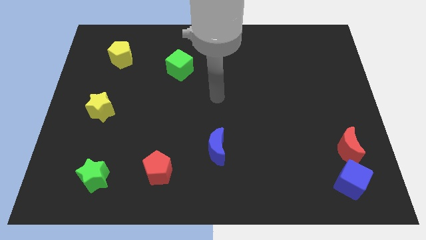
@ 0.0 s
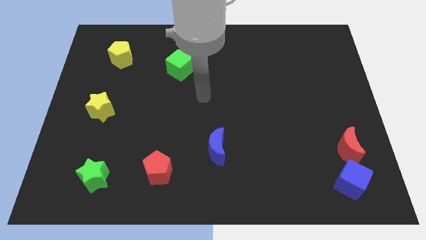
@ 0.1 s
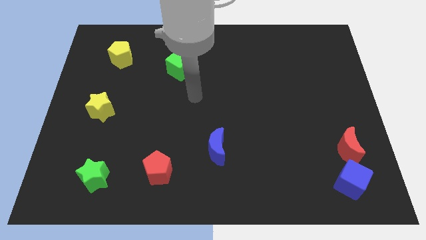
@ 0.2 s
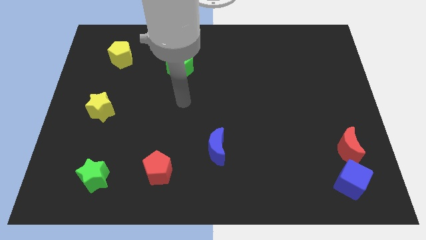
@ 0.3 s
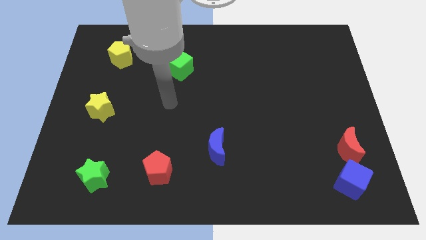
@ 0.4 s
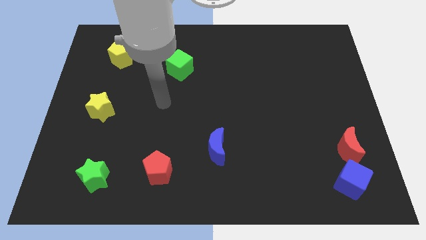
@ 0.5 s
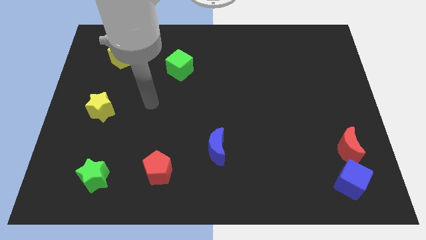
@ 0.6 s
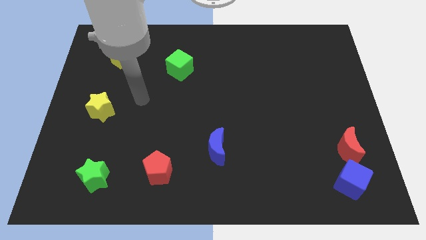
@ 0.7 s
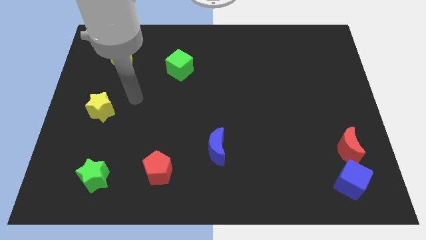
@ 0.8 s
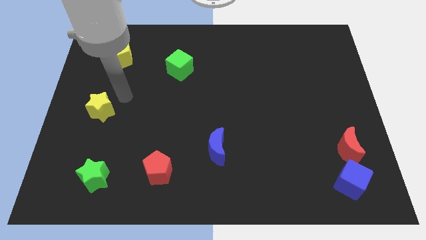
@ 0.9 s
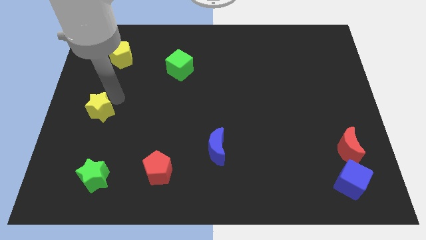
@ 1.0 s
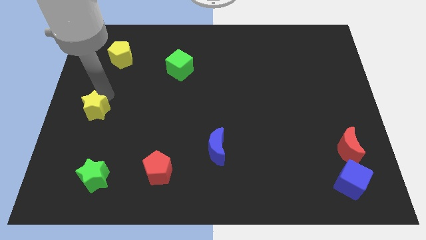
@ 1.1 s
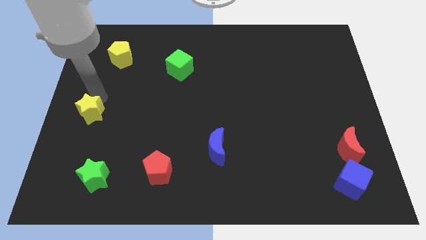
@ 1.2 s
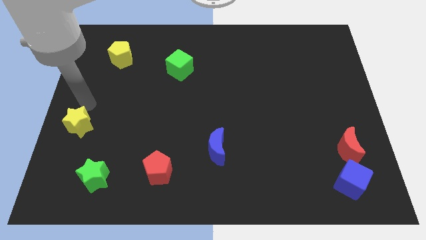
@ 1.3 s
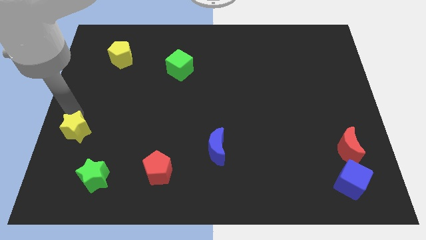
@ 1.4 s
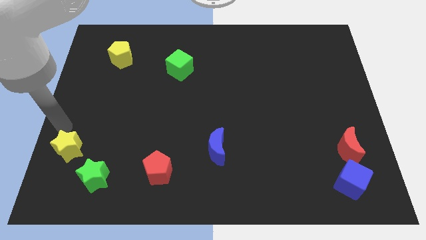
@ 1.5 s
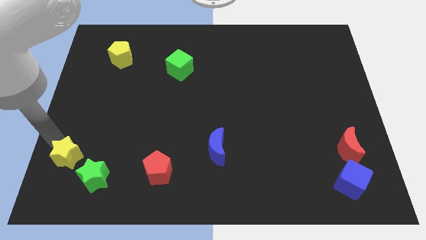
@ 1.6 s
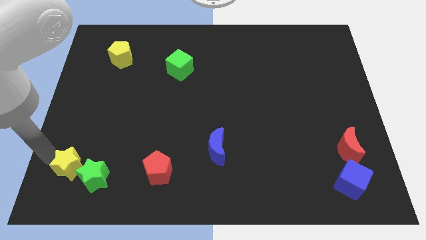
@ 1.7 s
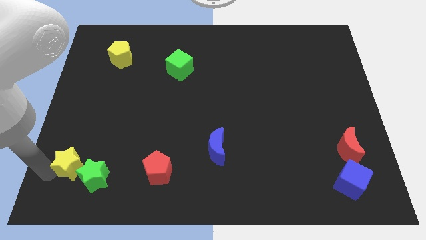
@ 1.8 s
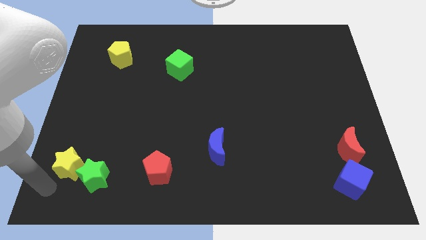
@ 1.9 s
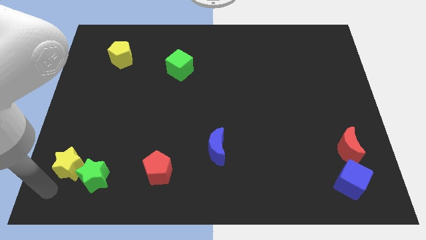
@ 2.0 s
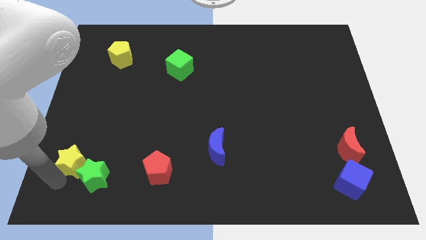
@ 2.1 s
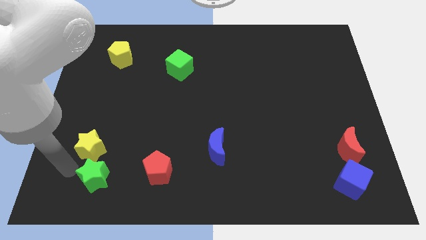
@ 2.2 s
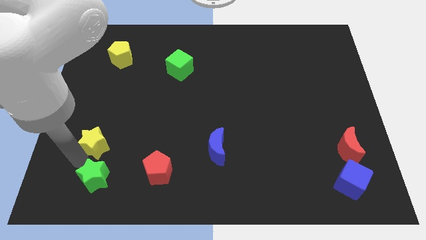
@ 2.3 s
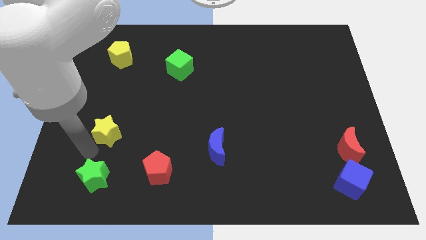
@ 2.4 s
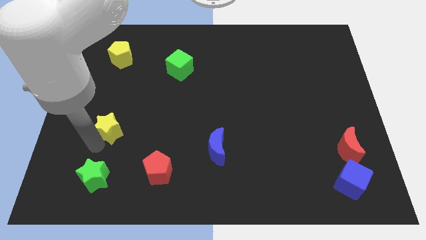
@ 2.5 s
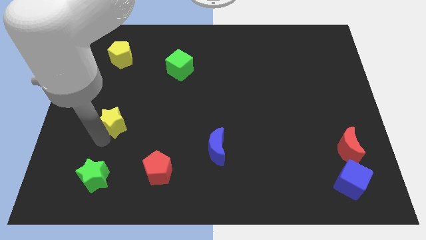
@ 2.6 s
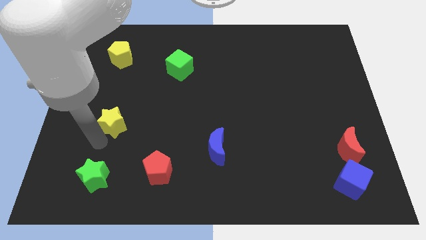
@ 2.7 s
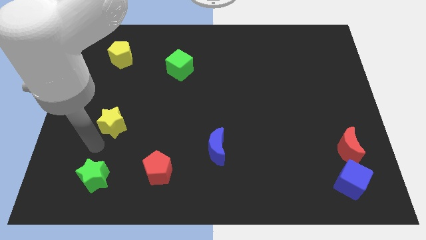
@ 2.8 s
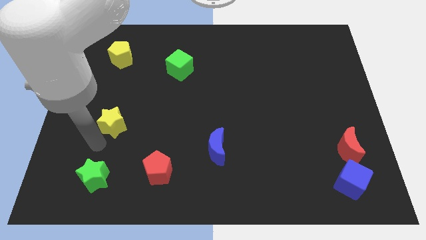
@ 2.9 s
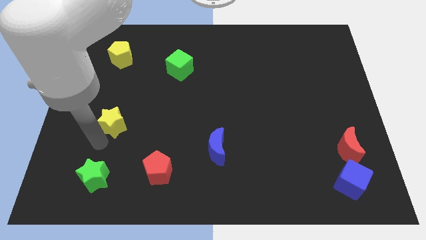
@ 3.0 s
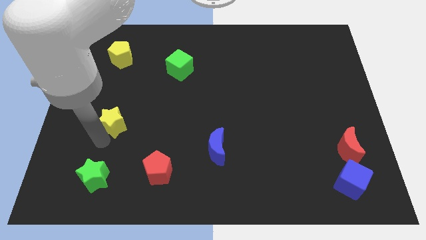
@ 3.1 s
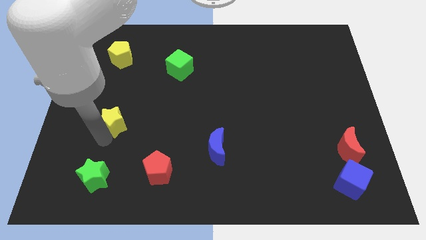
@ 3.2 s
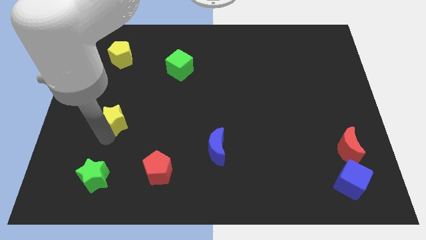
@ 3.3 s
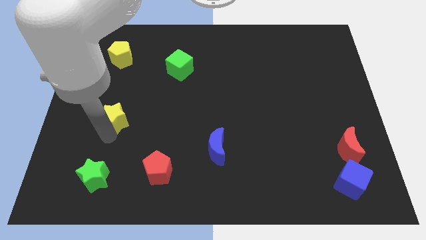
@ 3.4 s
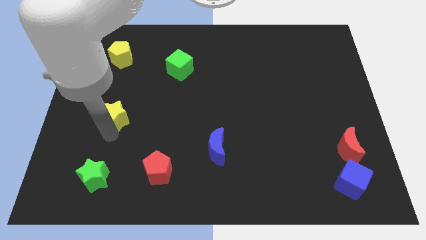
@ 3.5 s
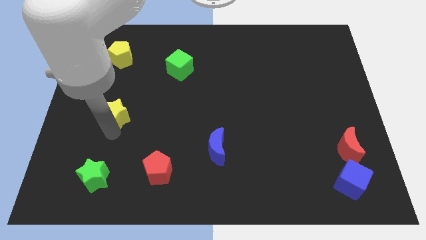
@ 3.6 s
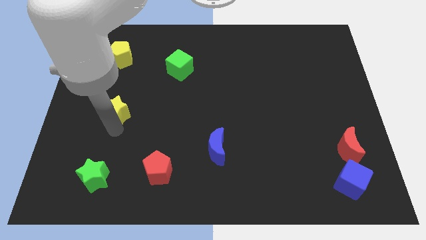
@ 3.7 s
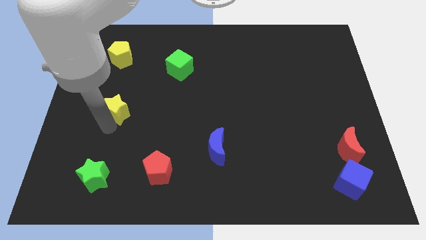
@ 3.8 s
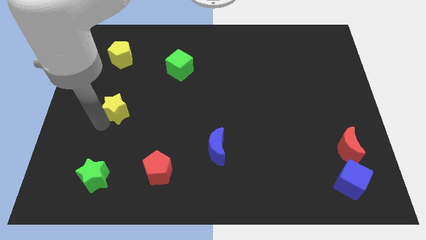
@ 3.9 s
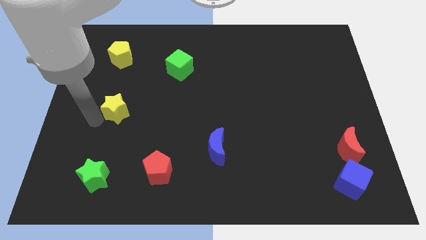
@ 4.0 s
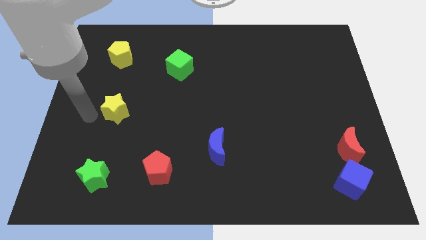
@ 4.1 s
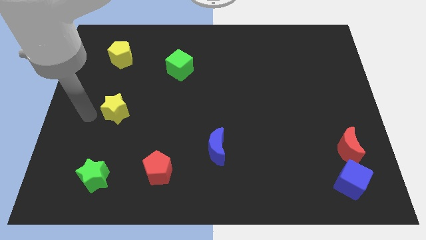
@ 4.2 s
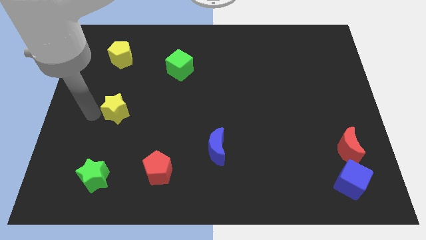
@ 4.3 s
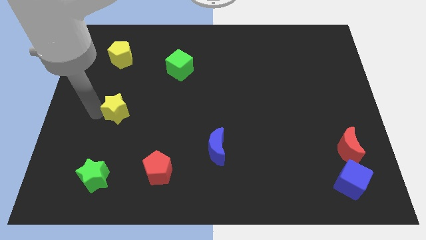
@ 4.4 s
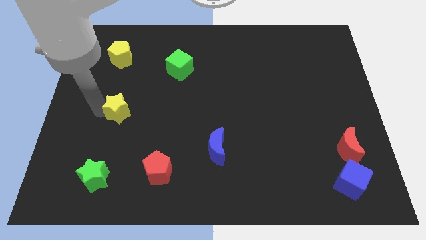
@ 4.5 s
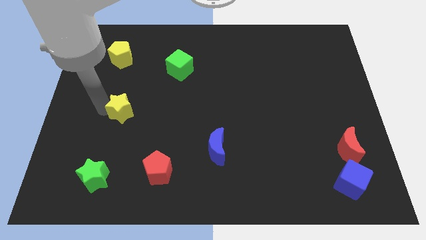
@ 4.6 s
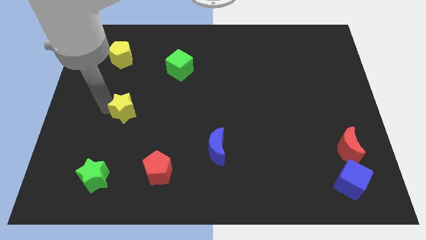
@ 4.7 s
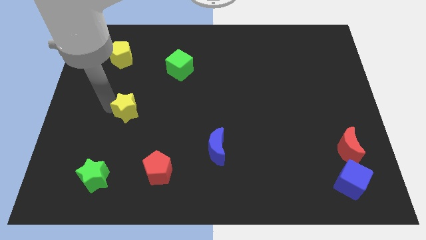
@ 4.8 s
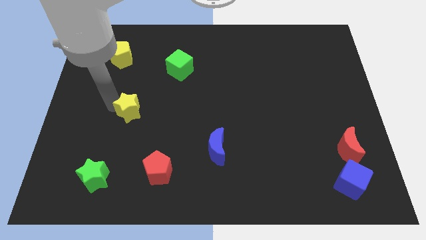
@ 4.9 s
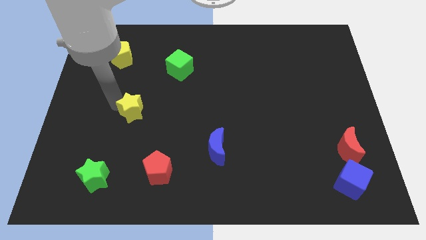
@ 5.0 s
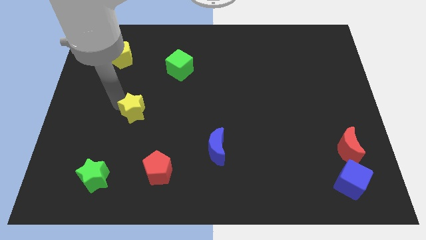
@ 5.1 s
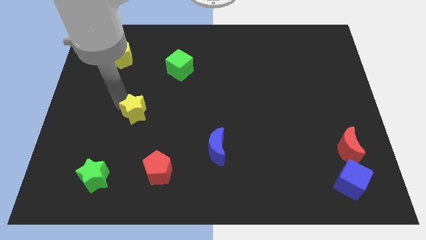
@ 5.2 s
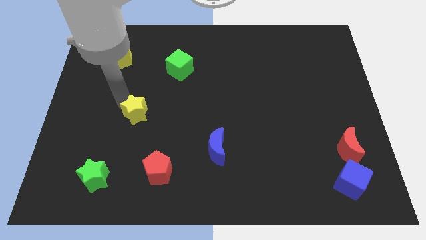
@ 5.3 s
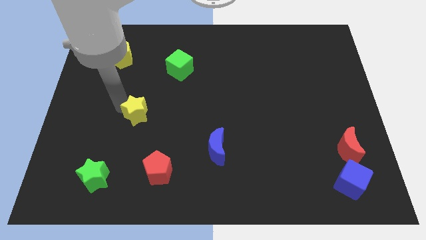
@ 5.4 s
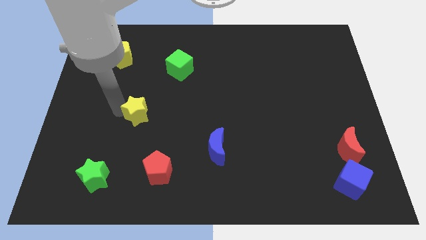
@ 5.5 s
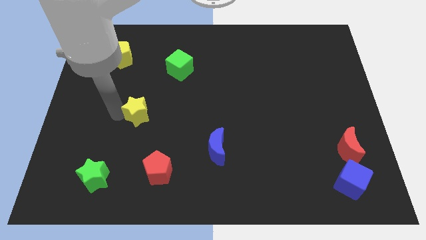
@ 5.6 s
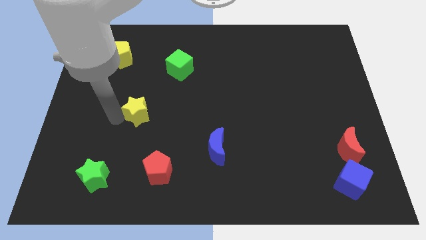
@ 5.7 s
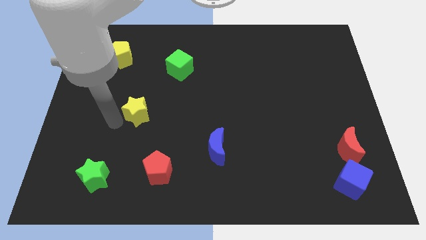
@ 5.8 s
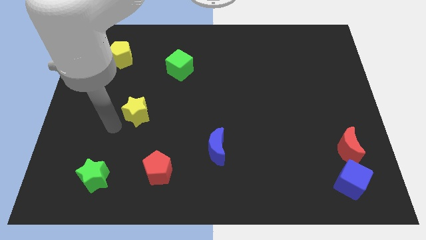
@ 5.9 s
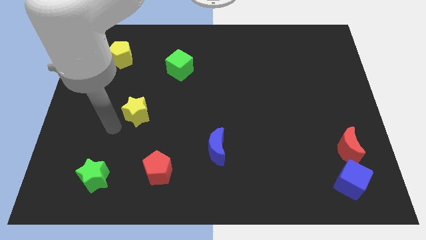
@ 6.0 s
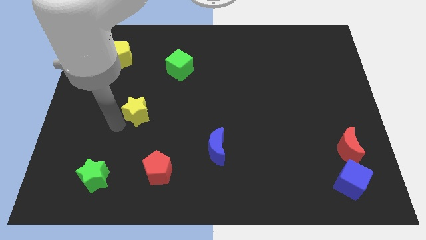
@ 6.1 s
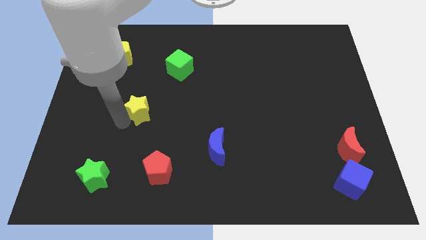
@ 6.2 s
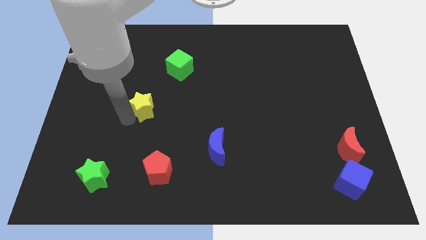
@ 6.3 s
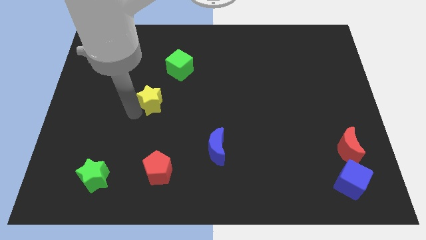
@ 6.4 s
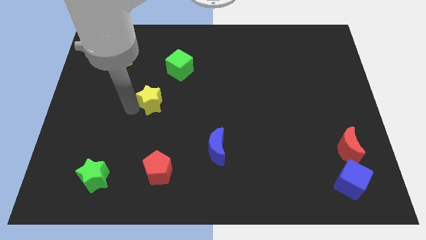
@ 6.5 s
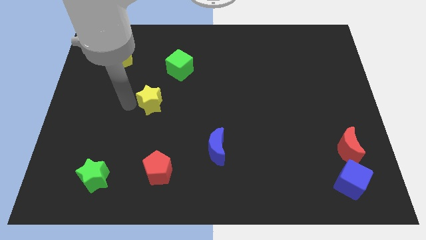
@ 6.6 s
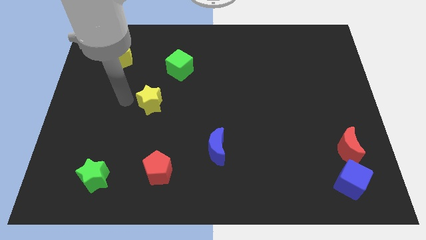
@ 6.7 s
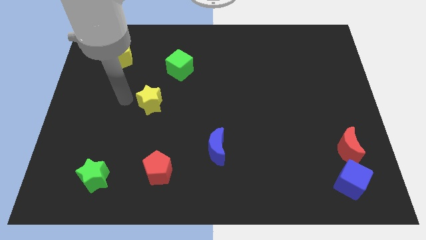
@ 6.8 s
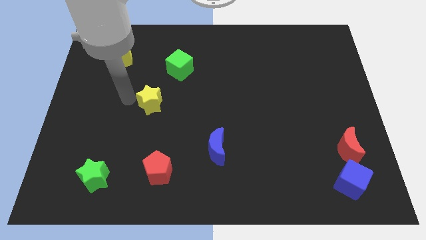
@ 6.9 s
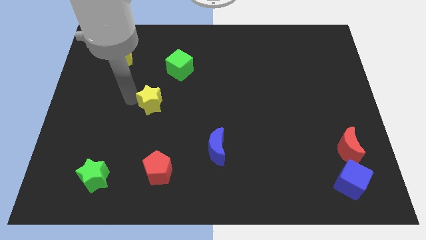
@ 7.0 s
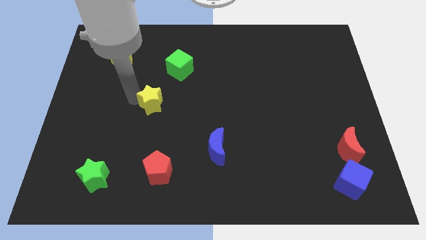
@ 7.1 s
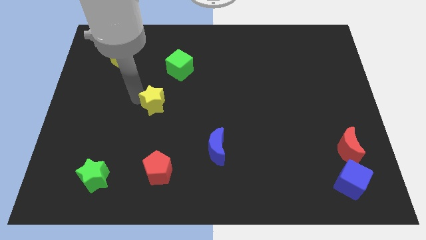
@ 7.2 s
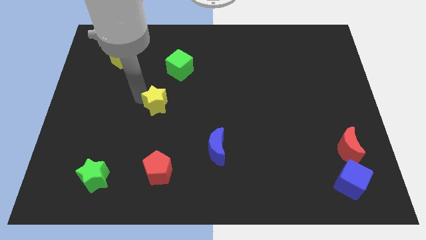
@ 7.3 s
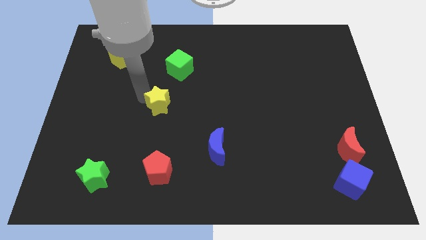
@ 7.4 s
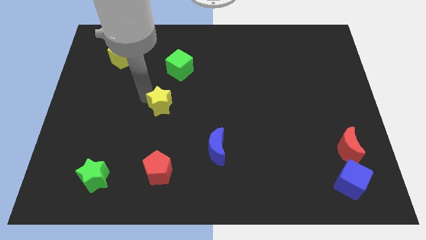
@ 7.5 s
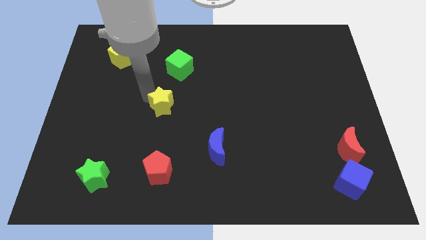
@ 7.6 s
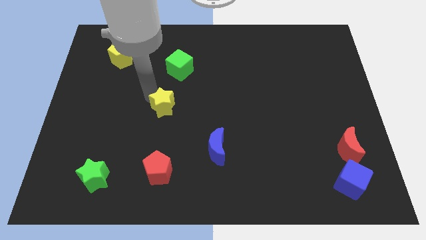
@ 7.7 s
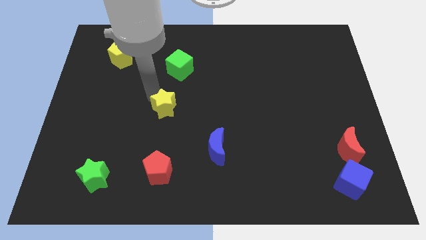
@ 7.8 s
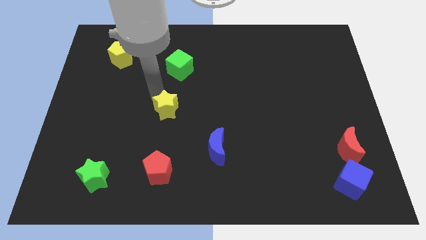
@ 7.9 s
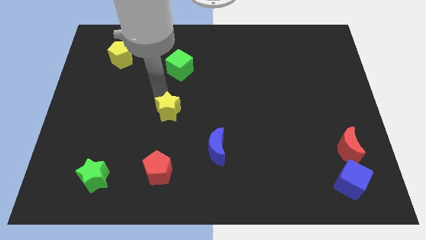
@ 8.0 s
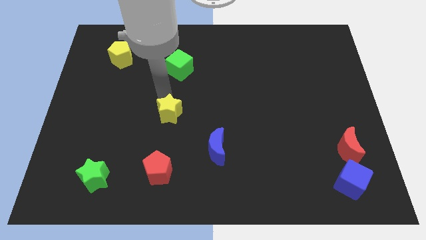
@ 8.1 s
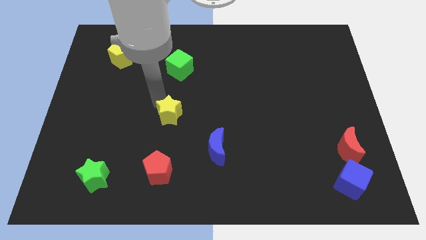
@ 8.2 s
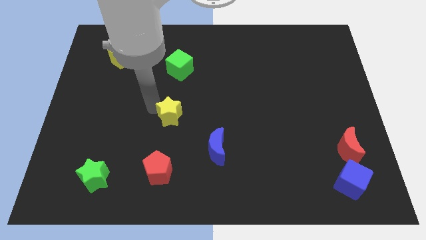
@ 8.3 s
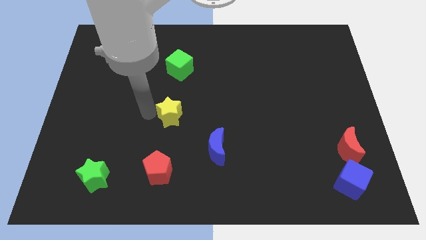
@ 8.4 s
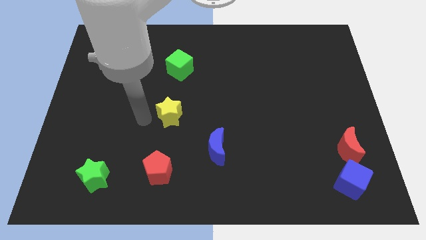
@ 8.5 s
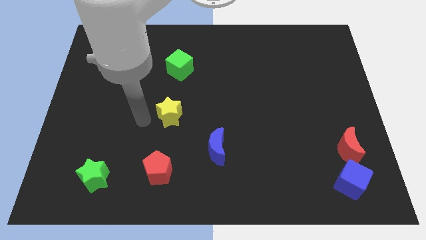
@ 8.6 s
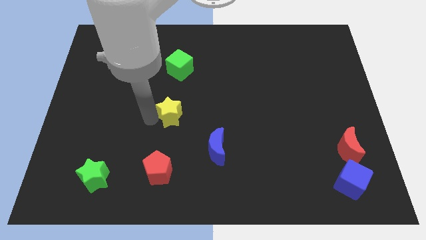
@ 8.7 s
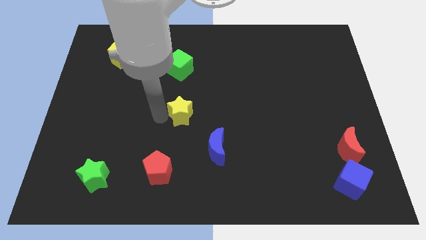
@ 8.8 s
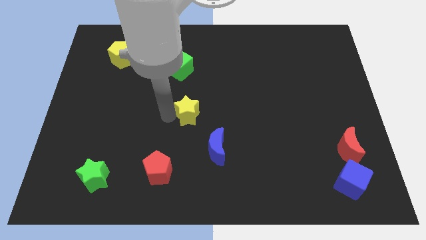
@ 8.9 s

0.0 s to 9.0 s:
slide the yellow star right
